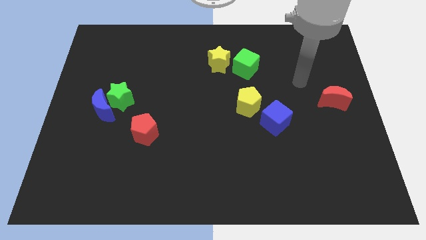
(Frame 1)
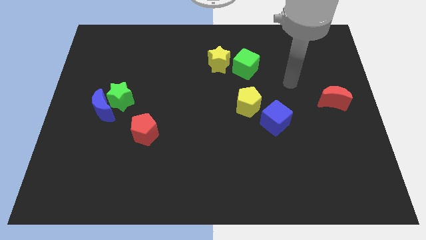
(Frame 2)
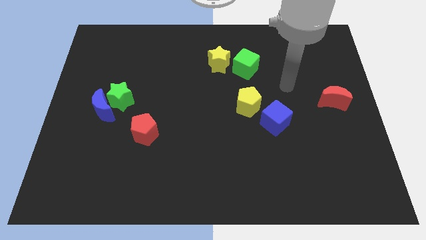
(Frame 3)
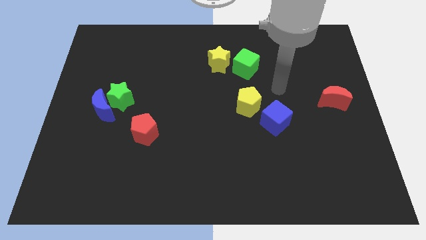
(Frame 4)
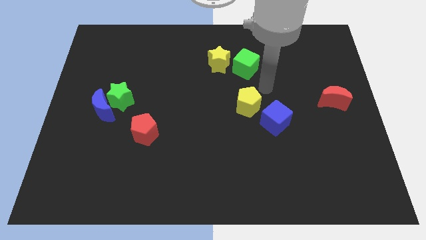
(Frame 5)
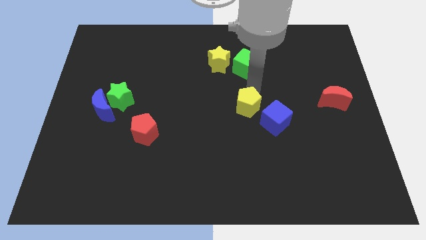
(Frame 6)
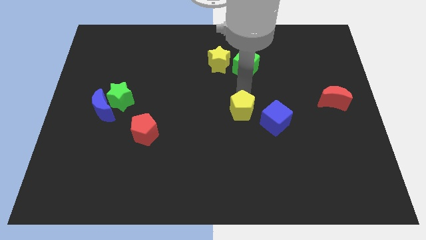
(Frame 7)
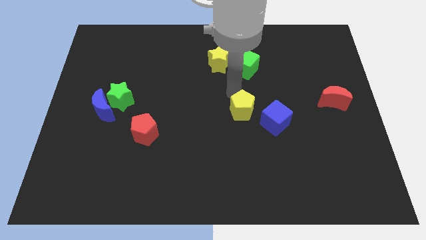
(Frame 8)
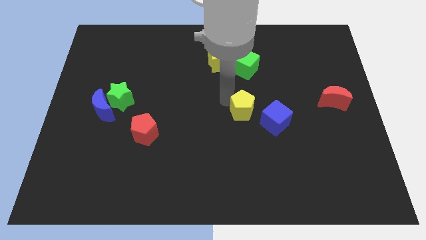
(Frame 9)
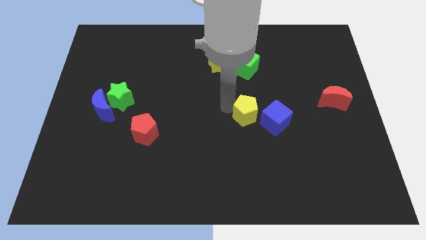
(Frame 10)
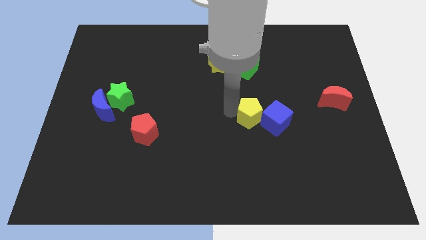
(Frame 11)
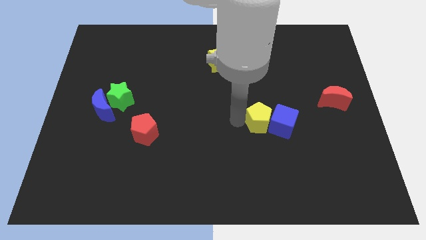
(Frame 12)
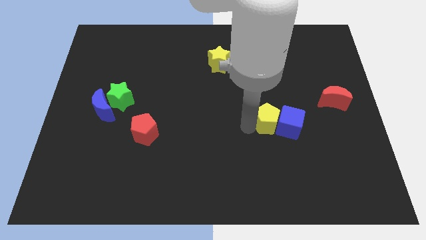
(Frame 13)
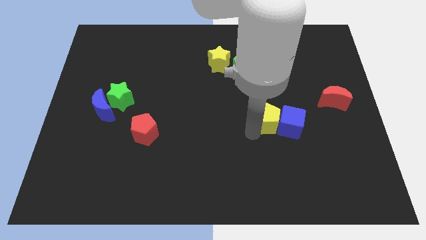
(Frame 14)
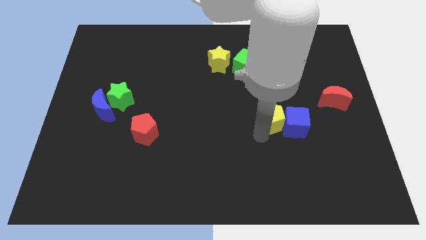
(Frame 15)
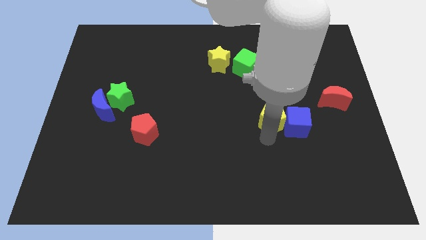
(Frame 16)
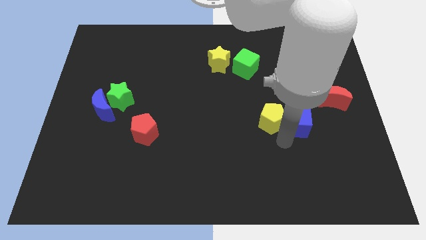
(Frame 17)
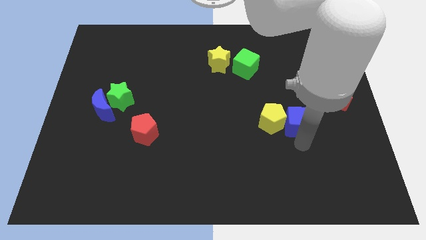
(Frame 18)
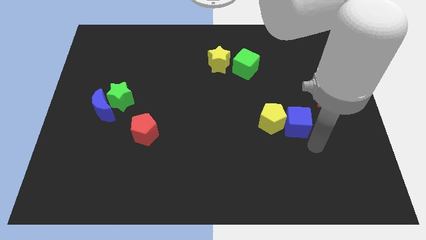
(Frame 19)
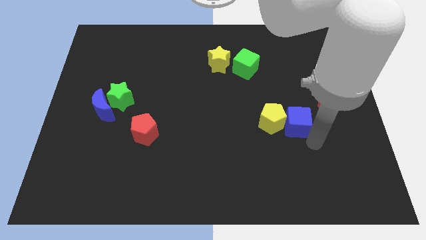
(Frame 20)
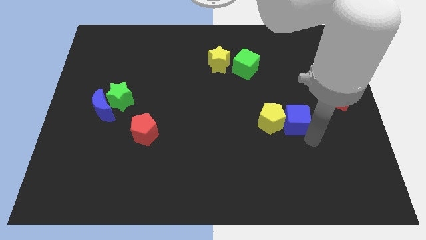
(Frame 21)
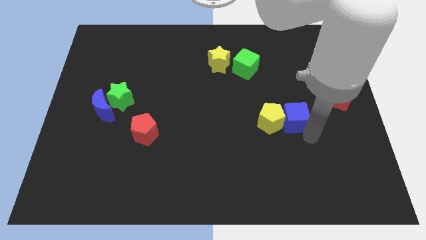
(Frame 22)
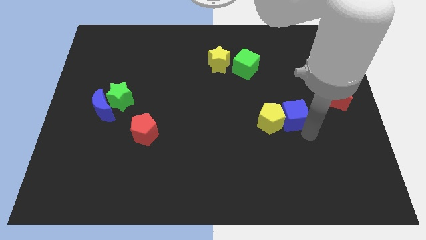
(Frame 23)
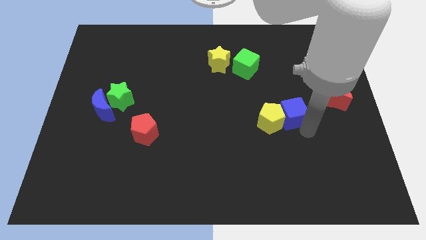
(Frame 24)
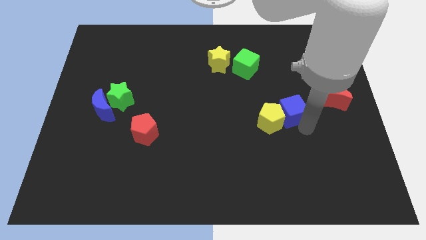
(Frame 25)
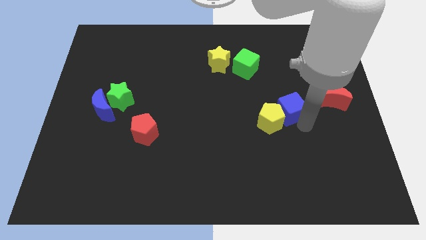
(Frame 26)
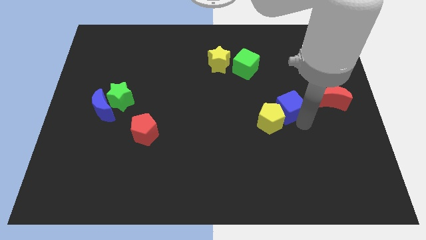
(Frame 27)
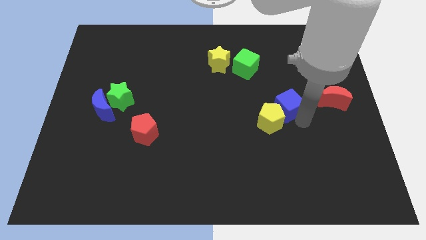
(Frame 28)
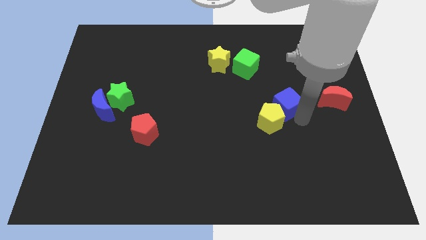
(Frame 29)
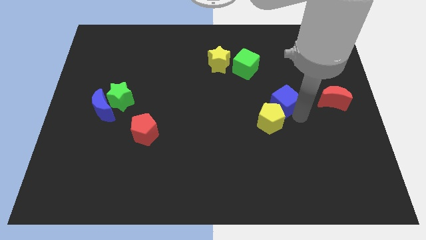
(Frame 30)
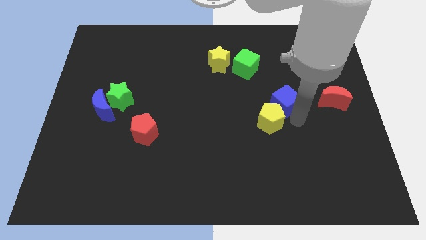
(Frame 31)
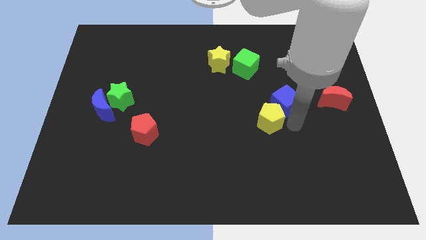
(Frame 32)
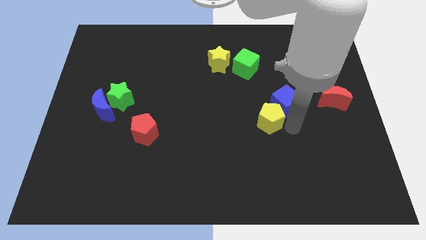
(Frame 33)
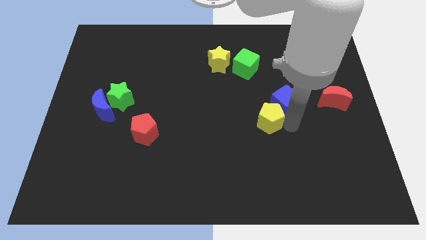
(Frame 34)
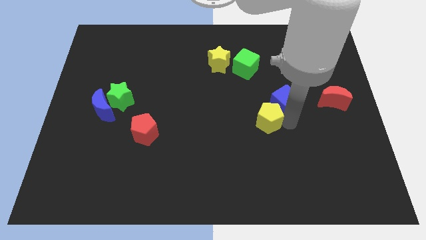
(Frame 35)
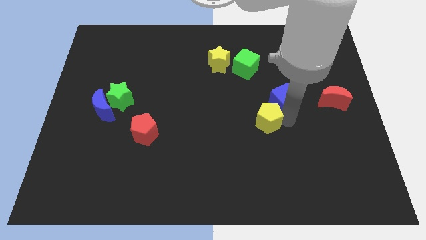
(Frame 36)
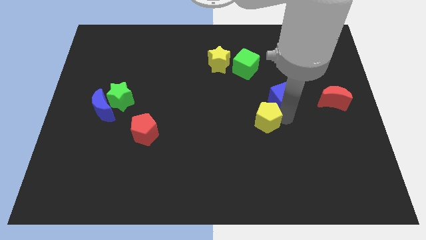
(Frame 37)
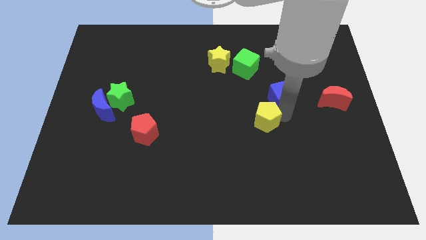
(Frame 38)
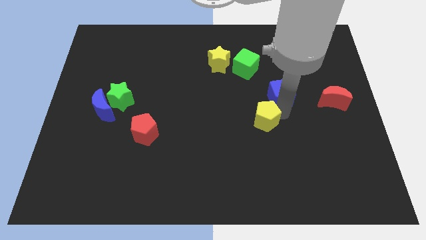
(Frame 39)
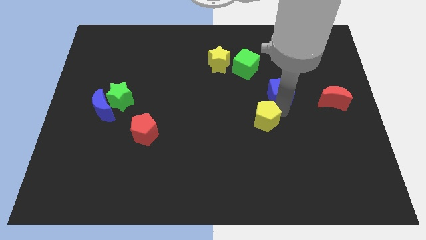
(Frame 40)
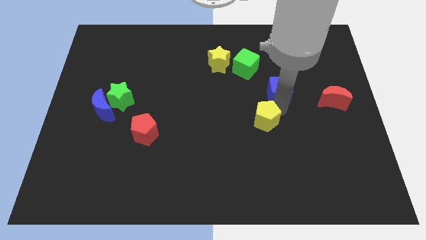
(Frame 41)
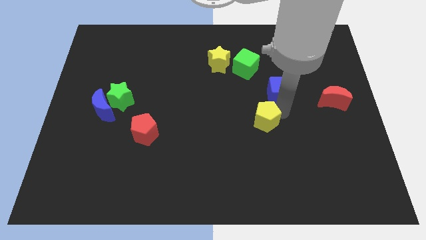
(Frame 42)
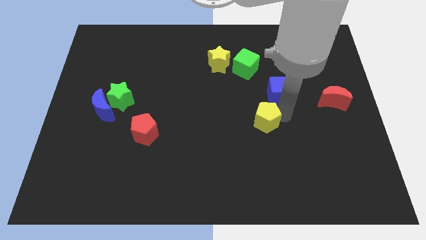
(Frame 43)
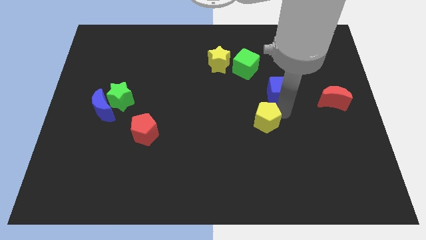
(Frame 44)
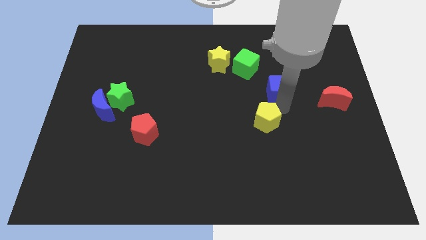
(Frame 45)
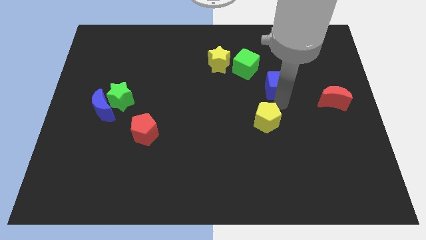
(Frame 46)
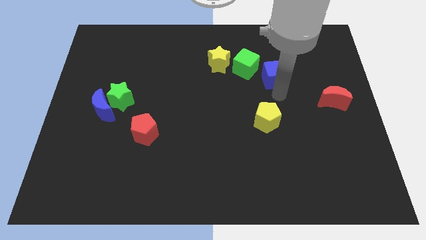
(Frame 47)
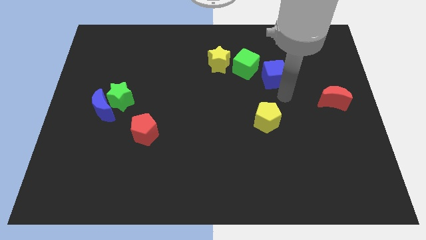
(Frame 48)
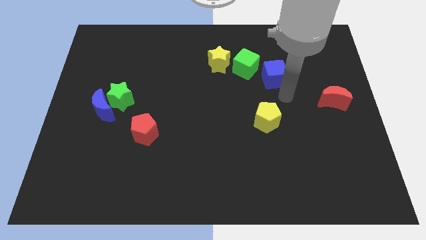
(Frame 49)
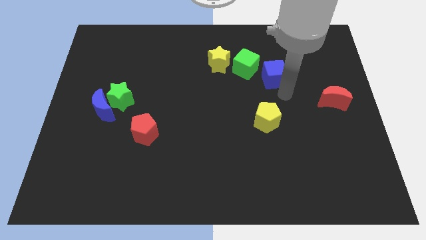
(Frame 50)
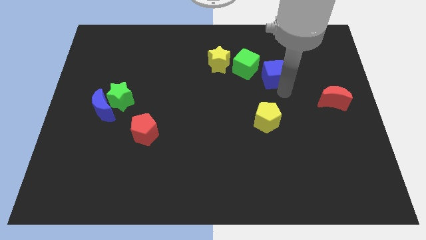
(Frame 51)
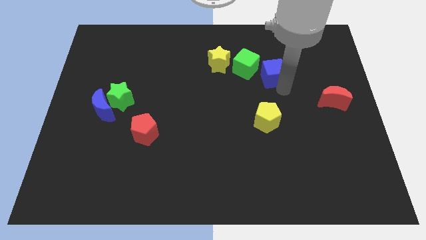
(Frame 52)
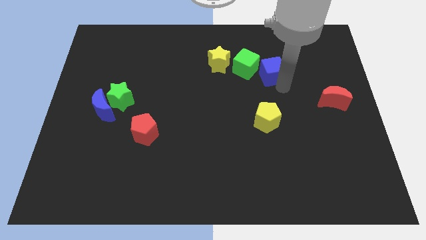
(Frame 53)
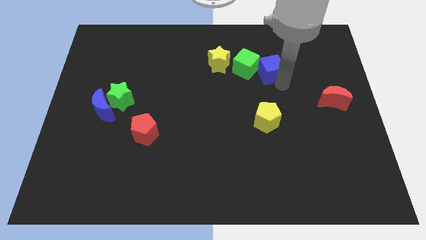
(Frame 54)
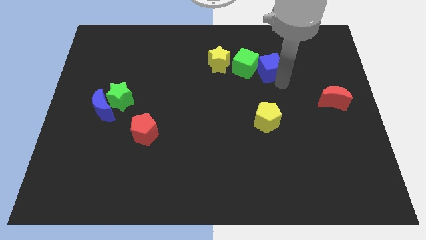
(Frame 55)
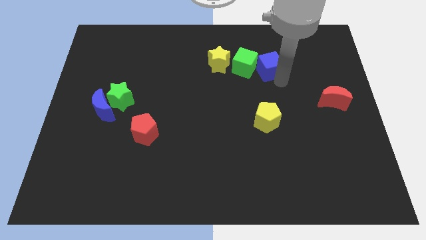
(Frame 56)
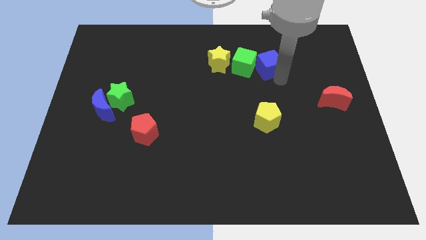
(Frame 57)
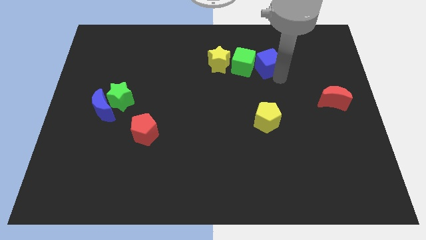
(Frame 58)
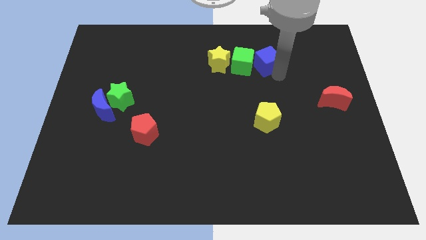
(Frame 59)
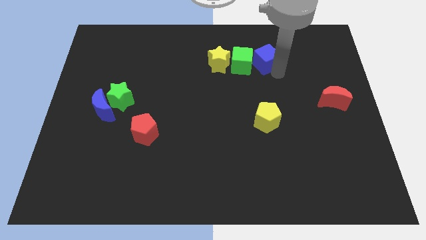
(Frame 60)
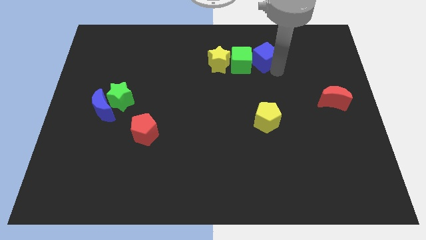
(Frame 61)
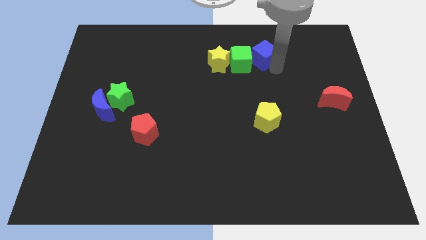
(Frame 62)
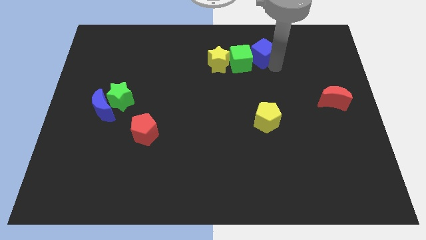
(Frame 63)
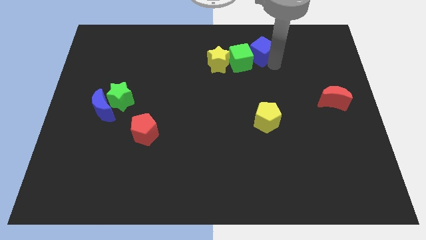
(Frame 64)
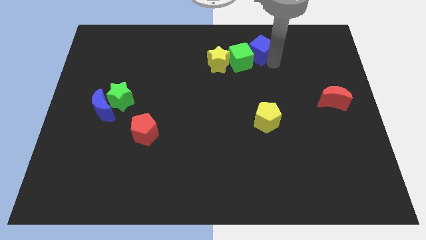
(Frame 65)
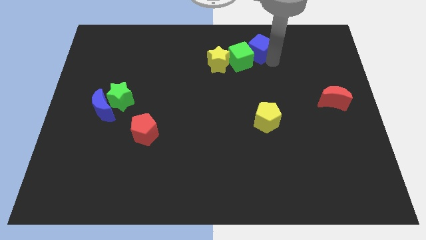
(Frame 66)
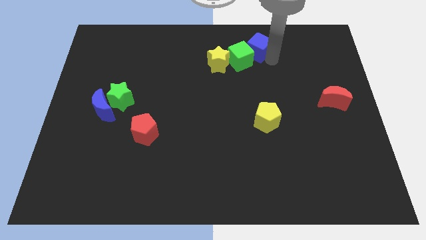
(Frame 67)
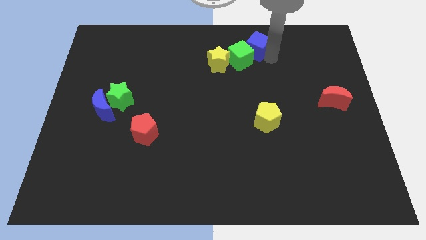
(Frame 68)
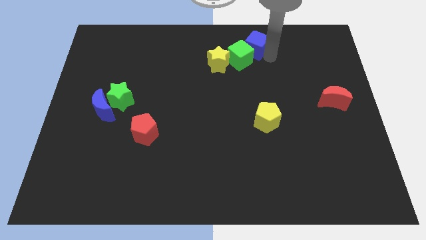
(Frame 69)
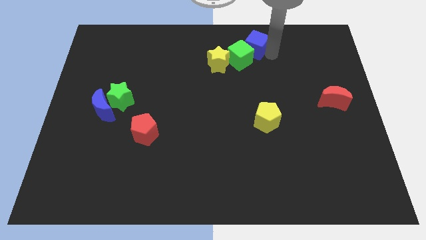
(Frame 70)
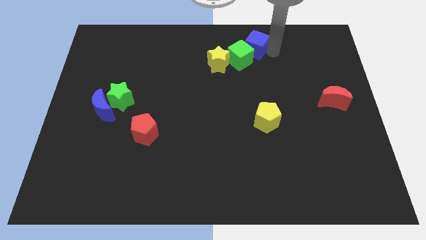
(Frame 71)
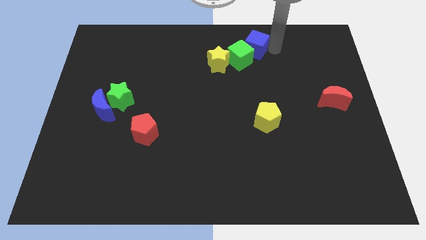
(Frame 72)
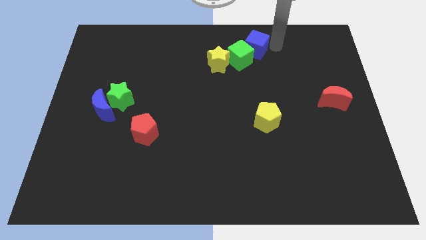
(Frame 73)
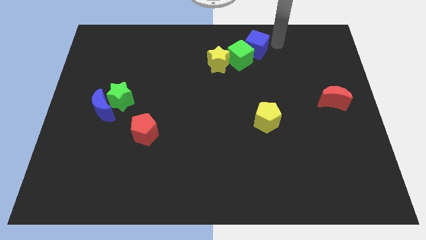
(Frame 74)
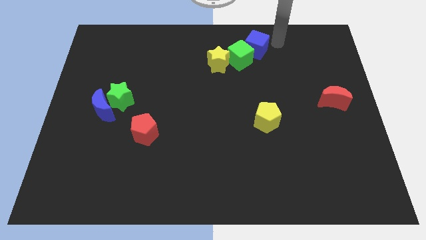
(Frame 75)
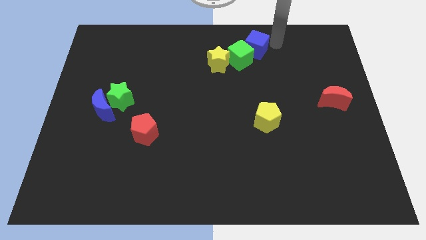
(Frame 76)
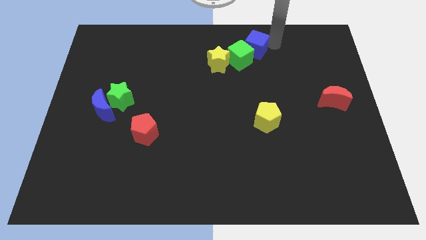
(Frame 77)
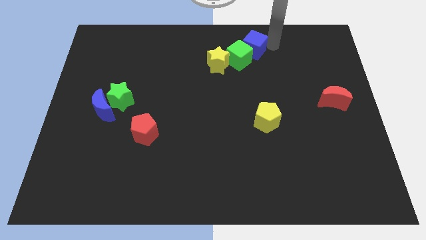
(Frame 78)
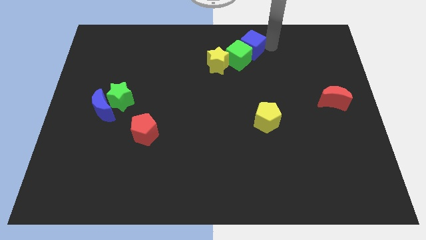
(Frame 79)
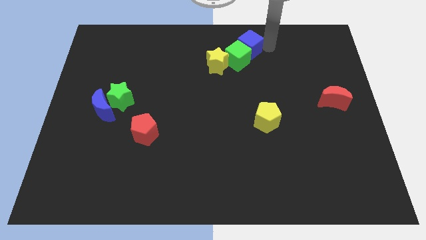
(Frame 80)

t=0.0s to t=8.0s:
put the blue cube to the top
